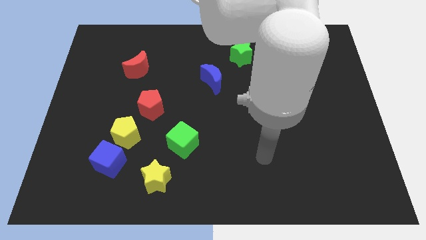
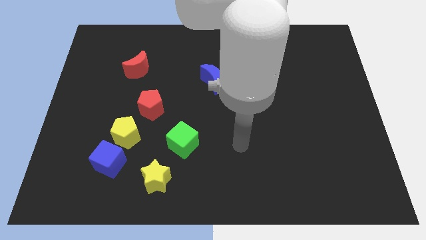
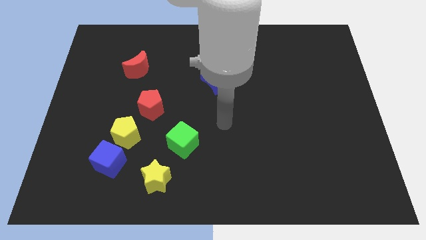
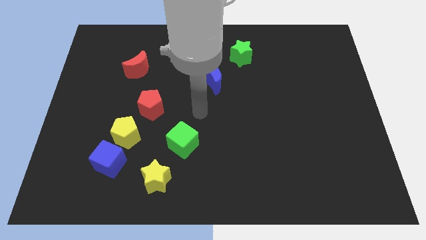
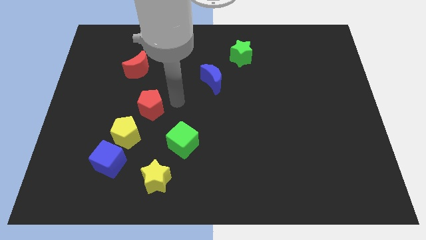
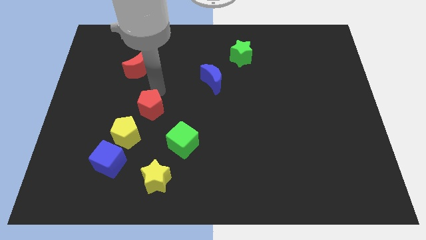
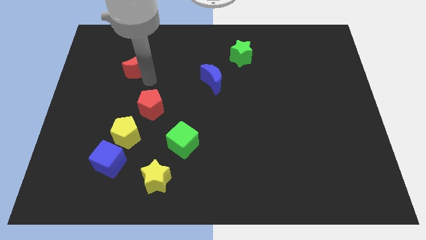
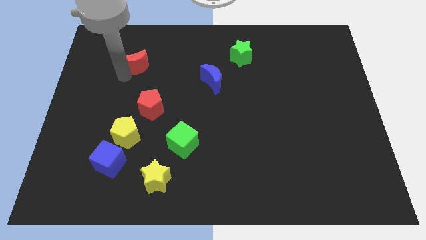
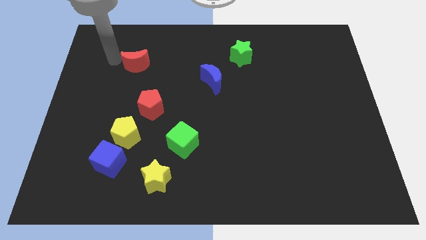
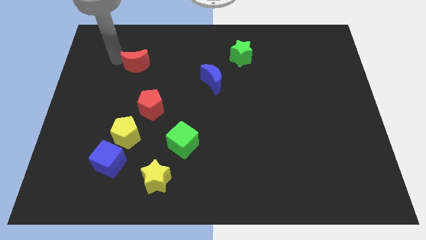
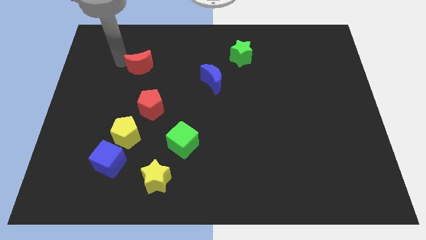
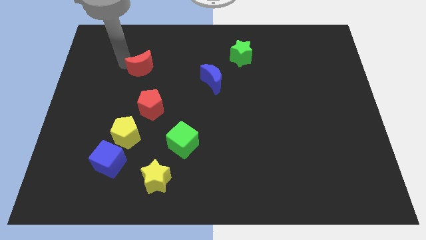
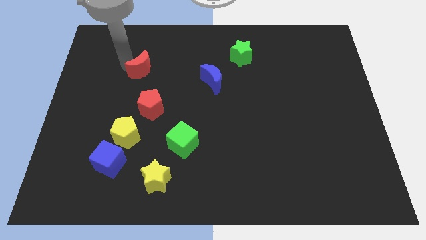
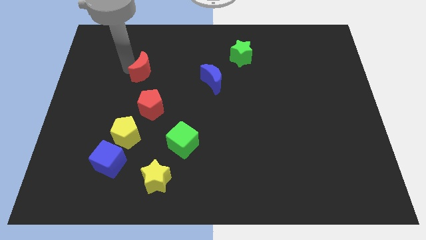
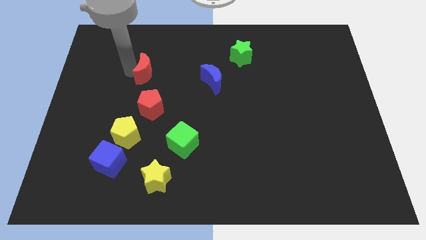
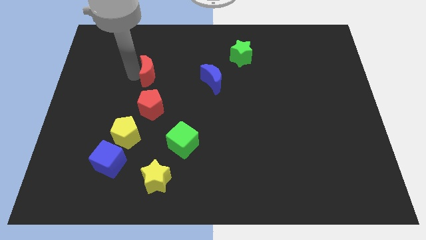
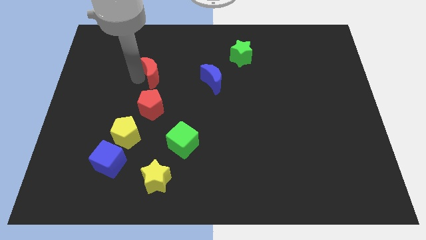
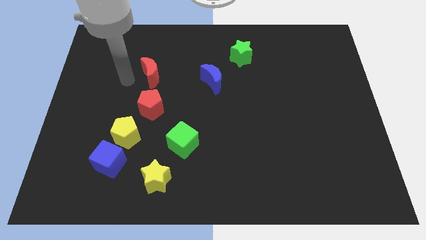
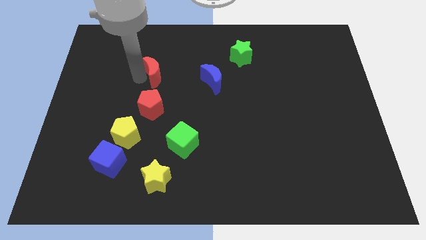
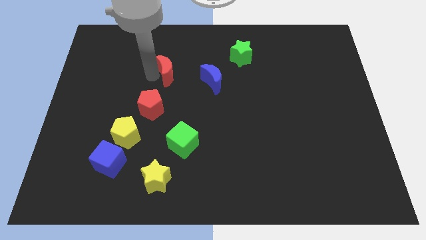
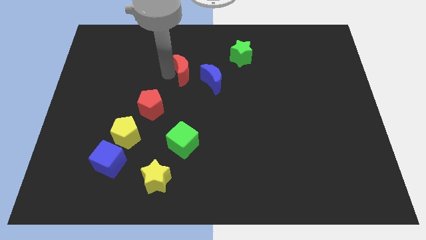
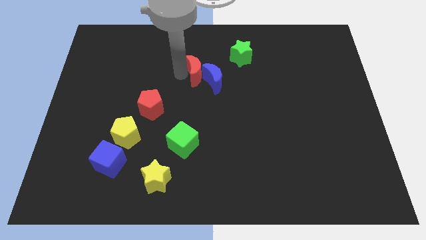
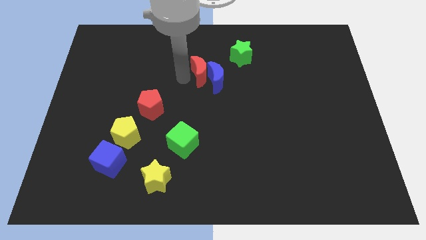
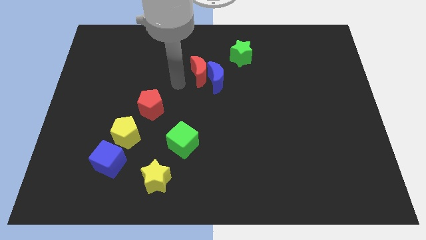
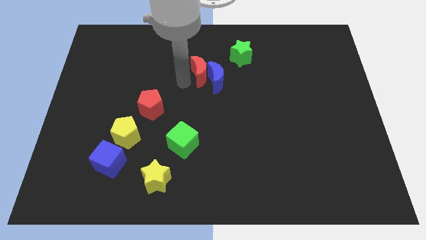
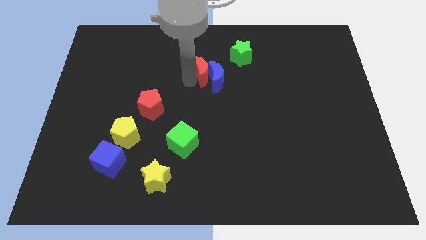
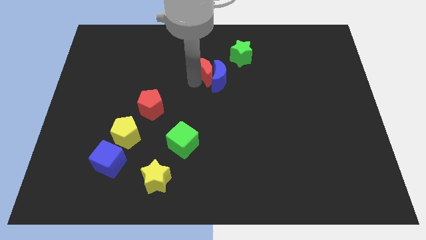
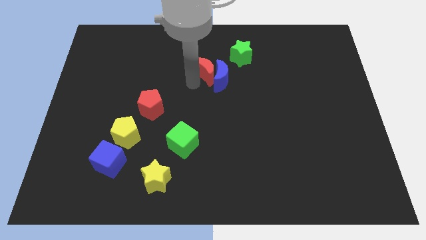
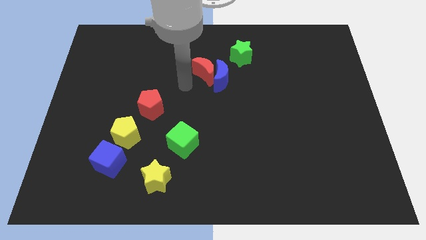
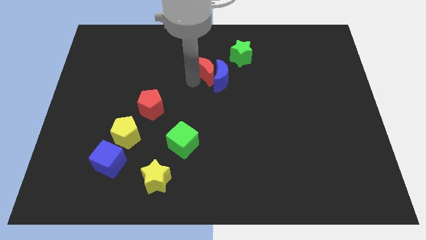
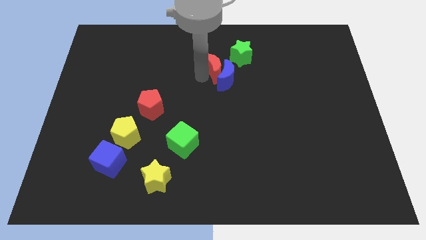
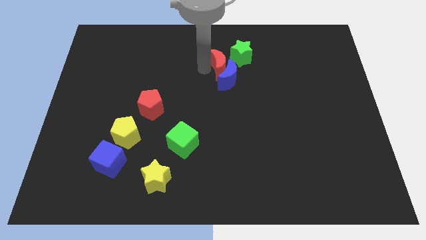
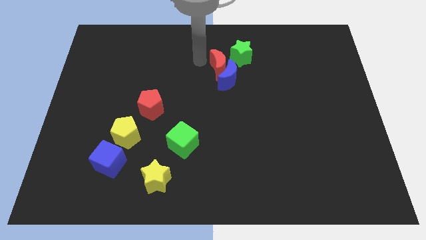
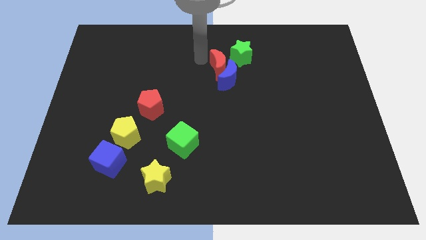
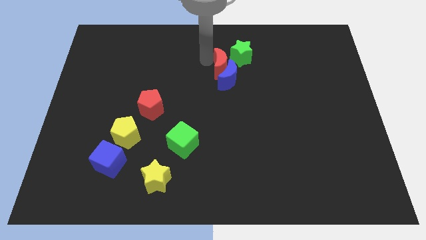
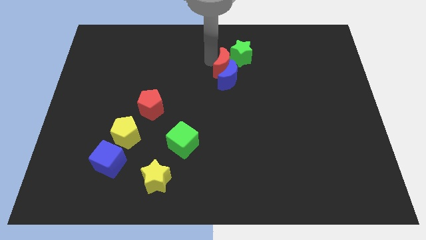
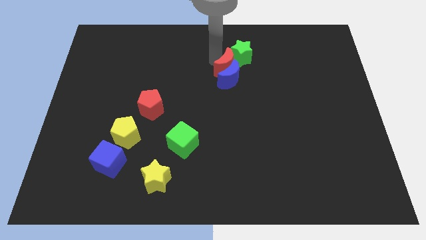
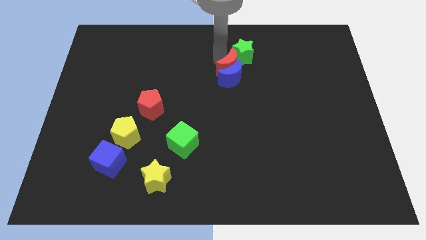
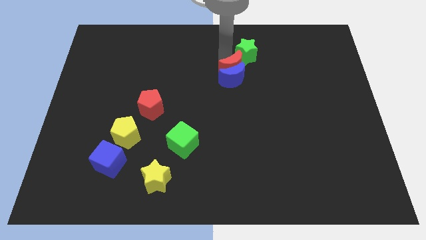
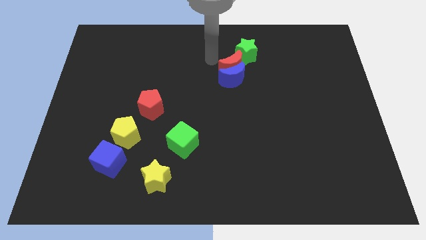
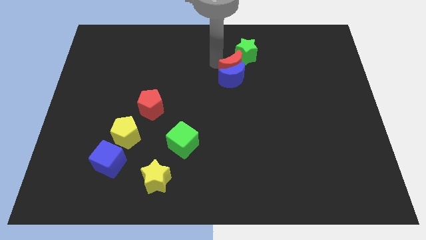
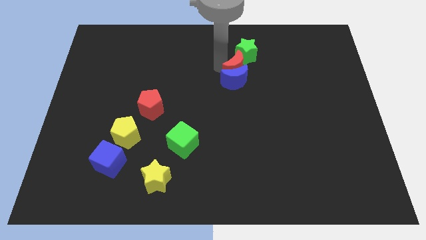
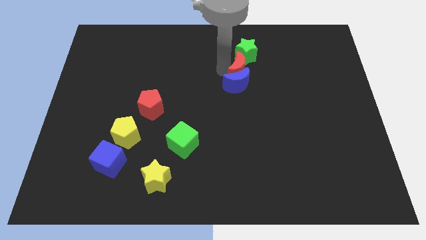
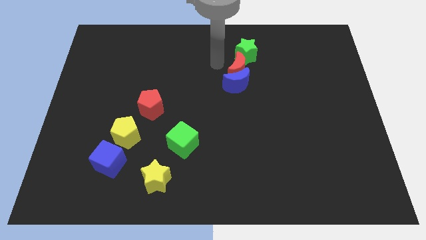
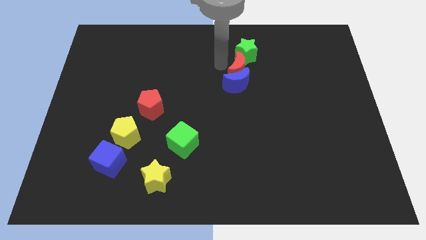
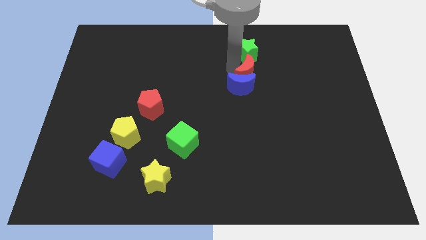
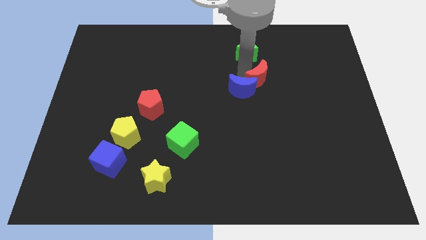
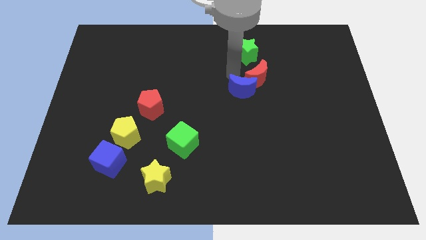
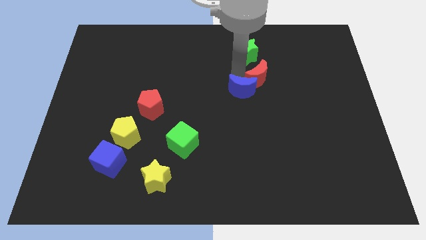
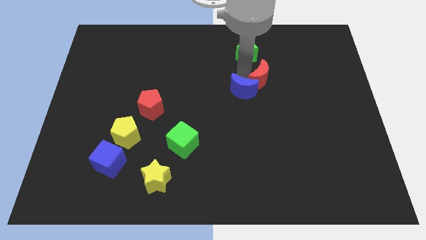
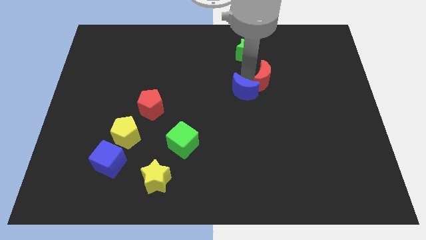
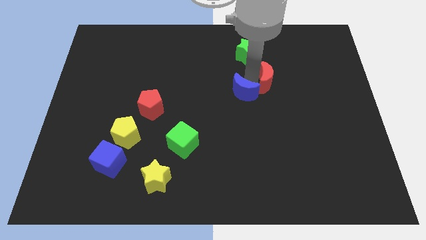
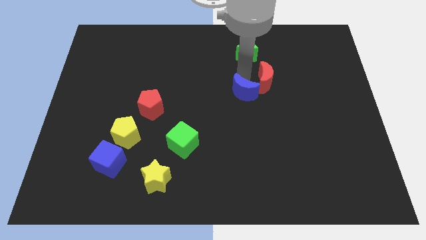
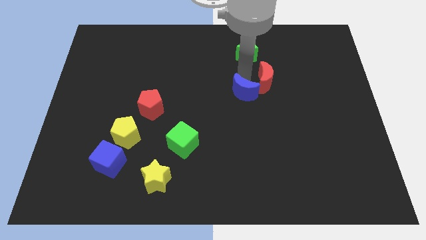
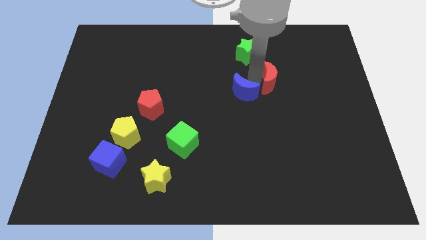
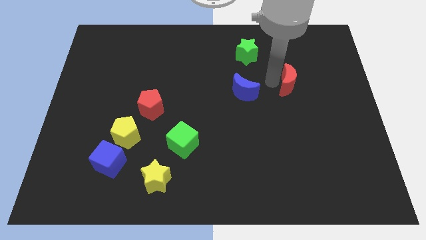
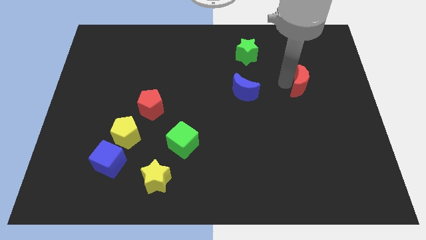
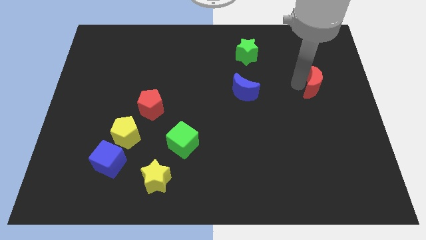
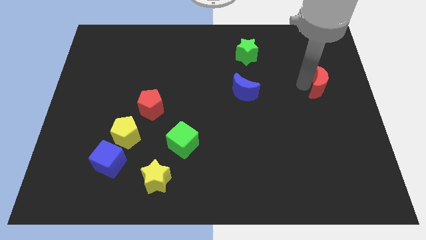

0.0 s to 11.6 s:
put the red moon to the center right

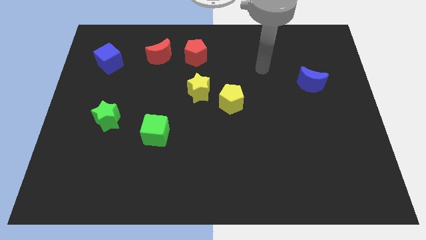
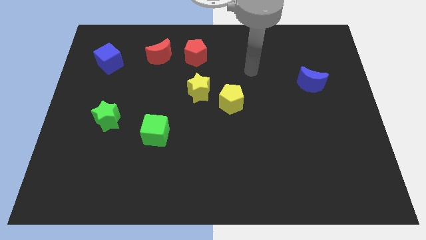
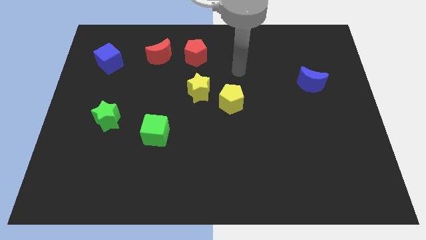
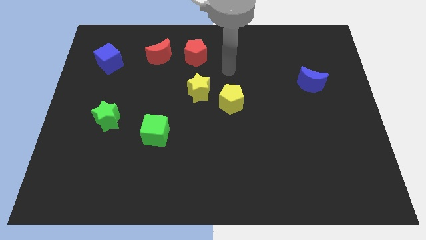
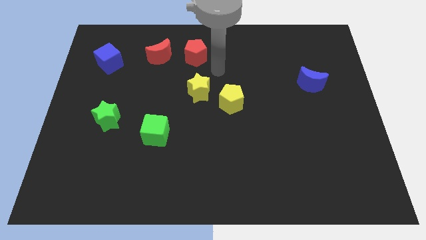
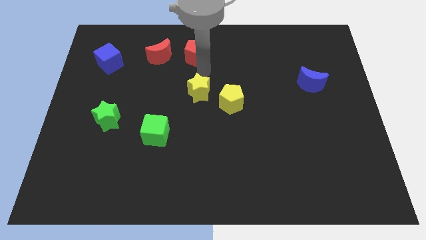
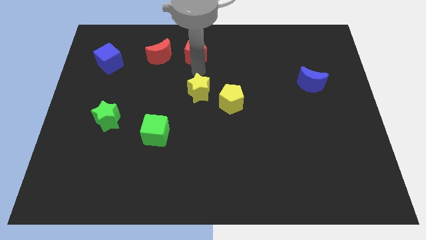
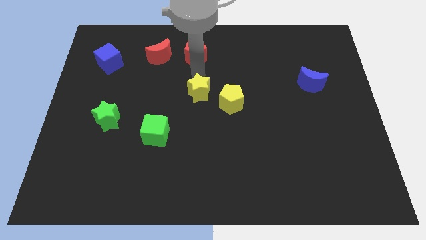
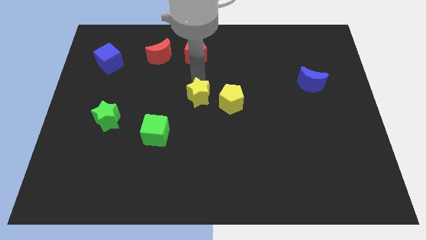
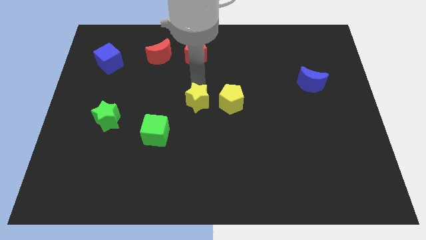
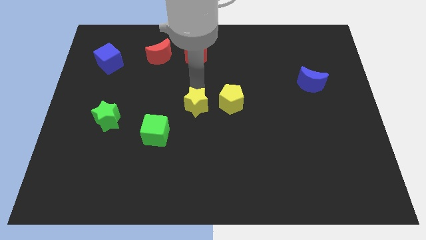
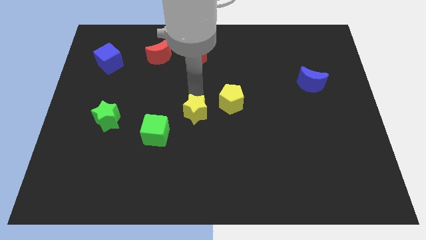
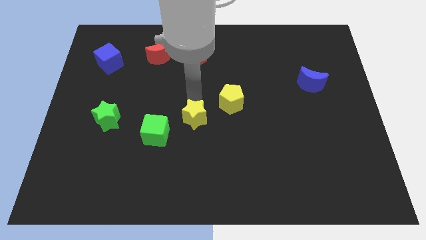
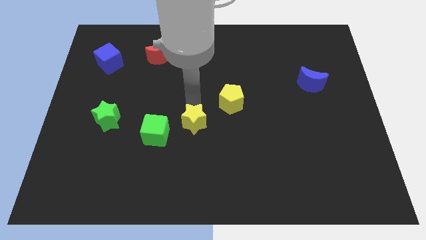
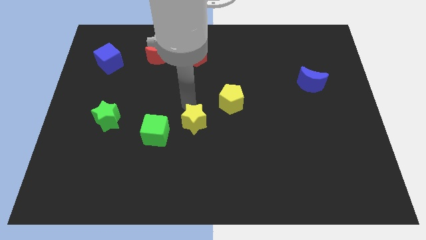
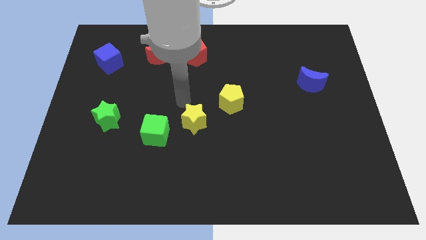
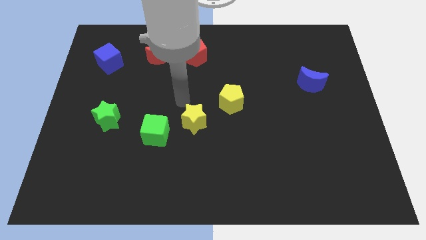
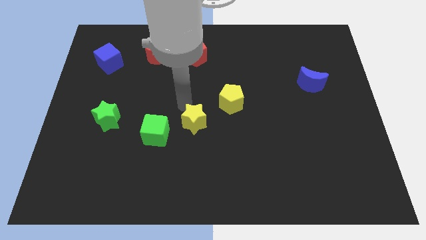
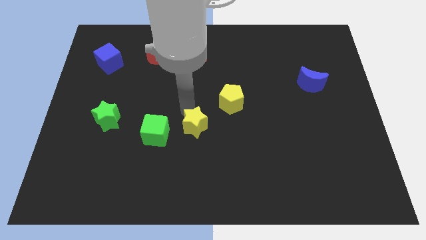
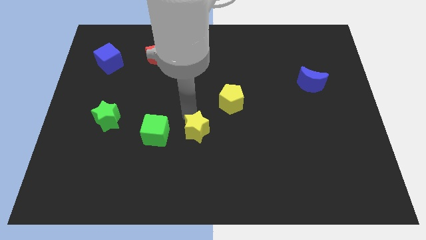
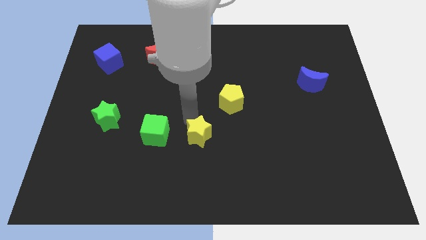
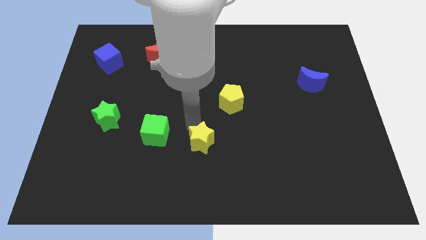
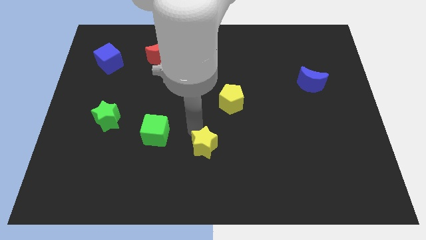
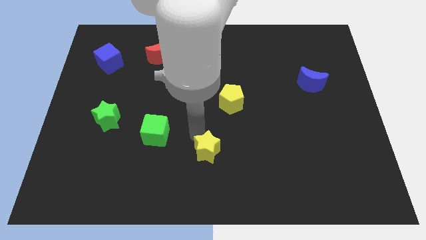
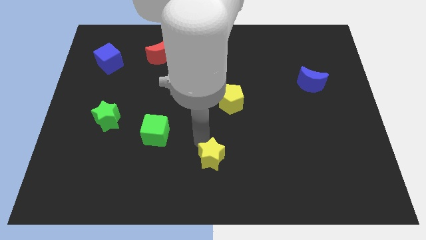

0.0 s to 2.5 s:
slide the yellow star to the bottom
